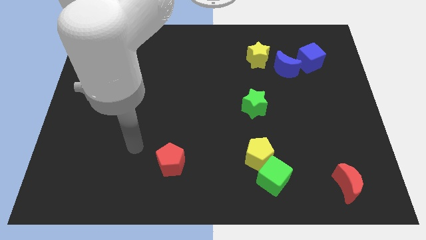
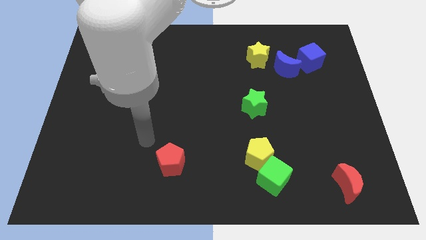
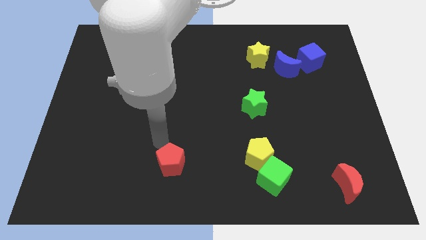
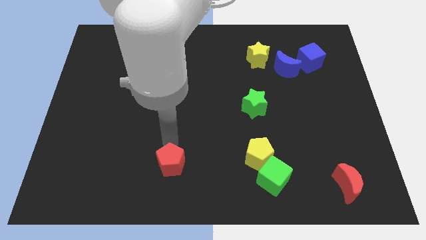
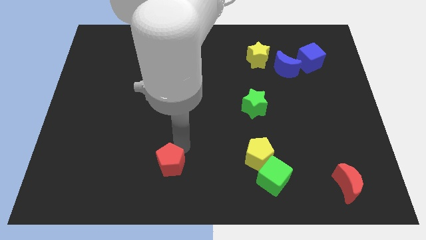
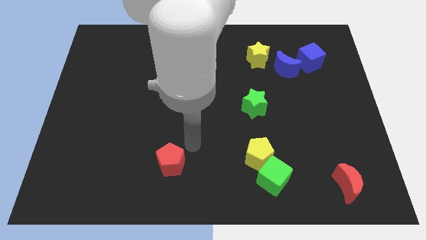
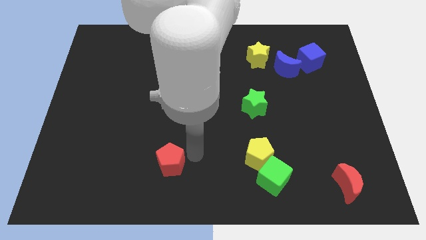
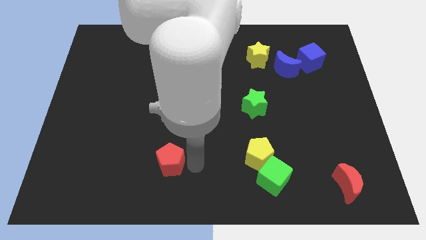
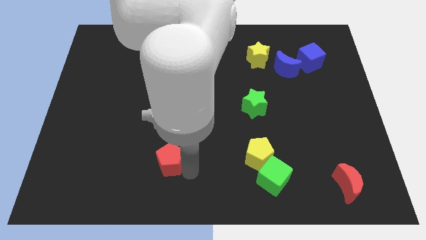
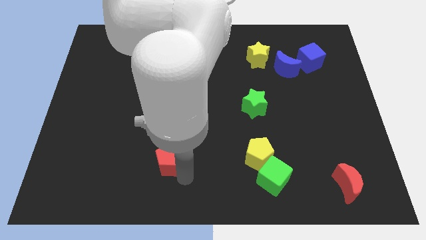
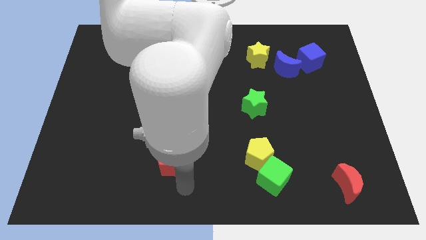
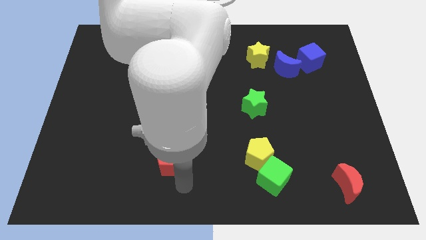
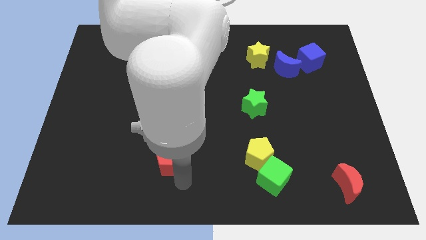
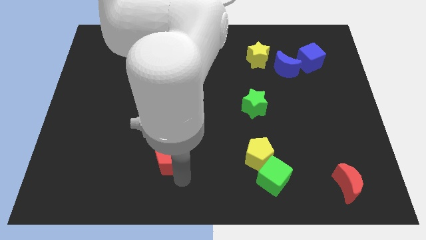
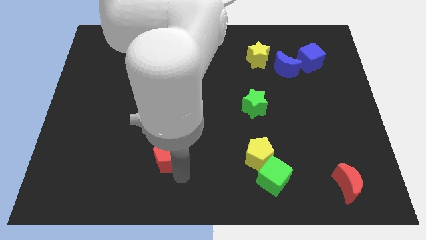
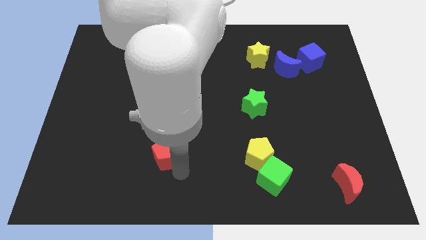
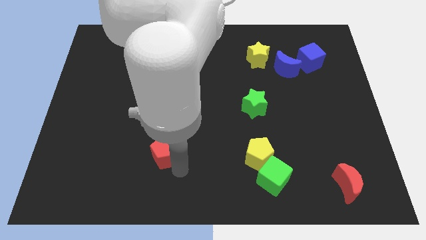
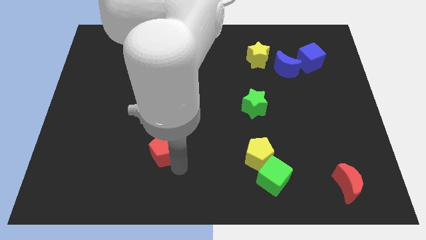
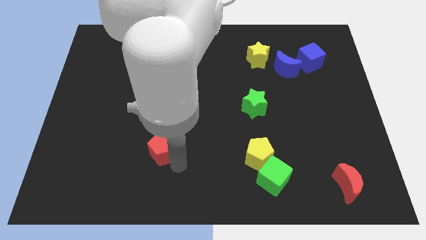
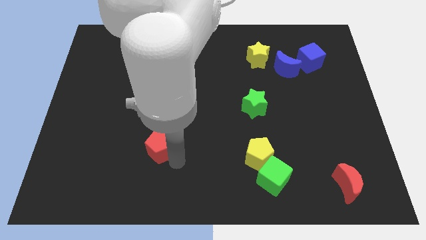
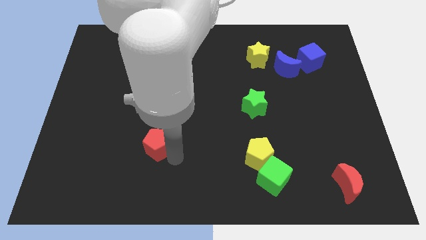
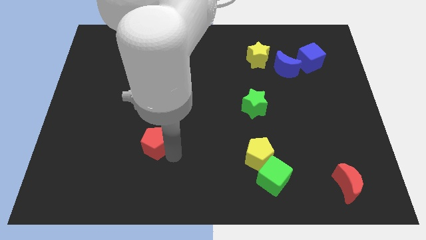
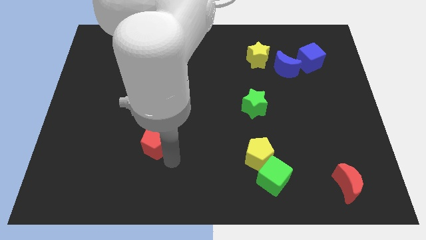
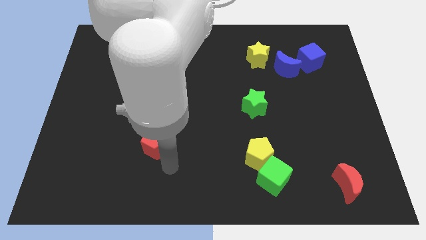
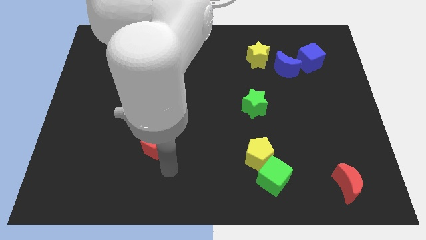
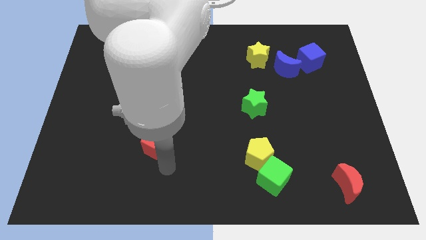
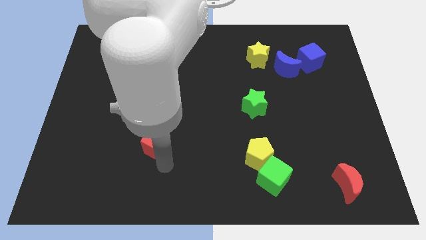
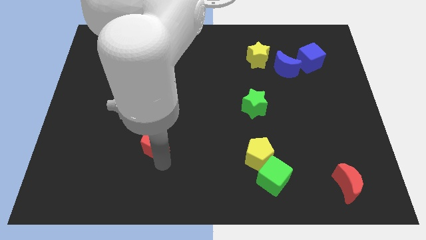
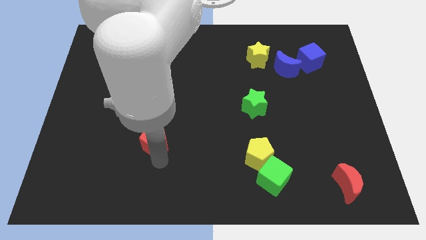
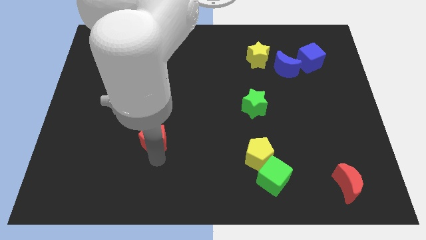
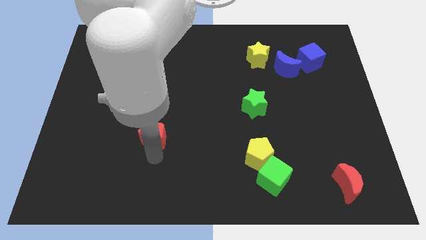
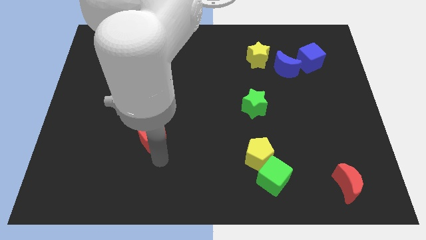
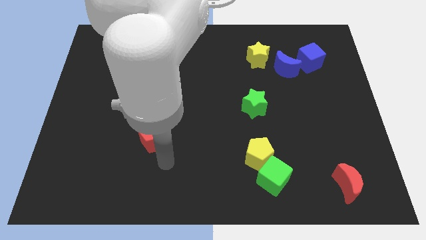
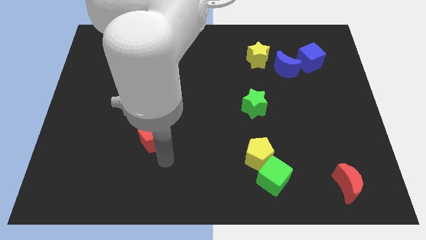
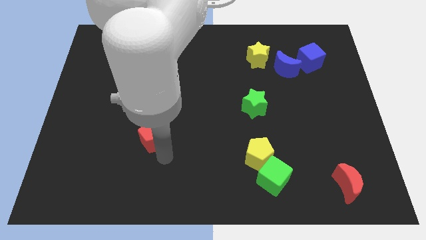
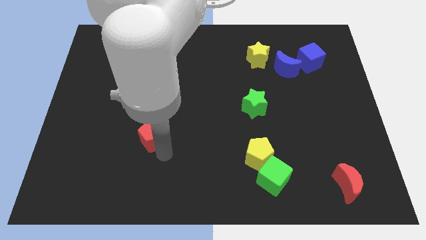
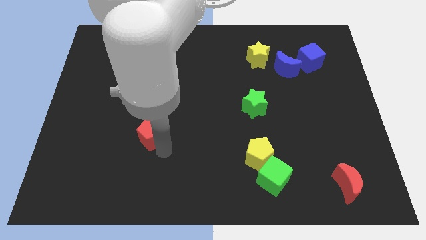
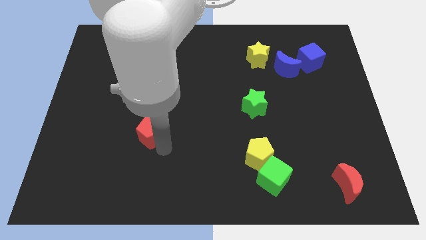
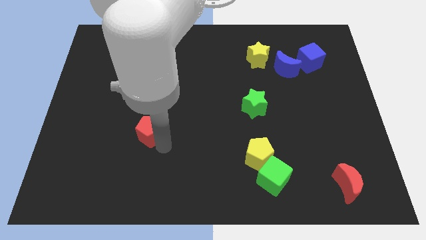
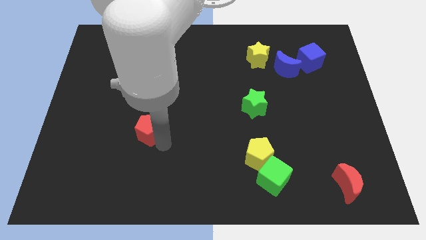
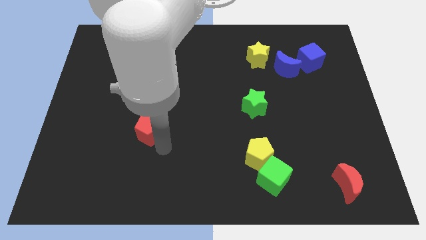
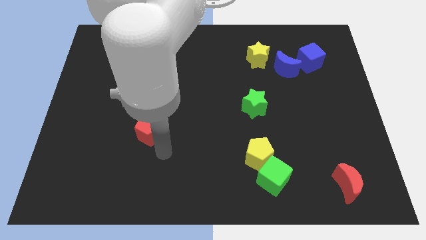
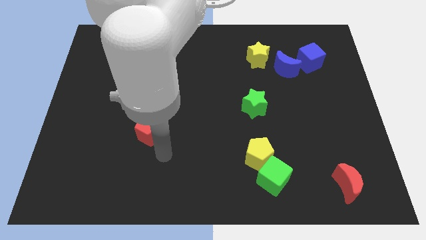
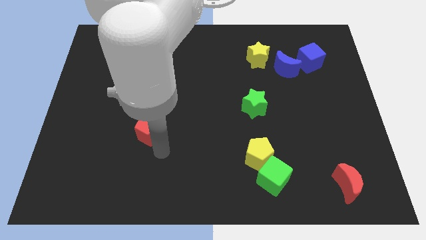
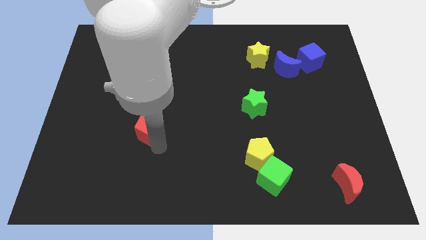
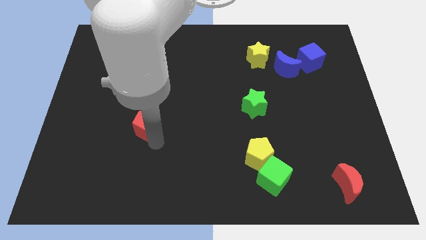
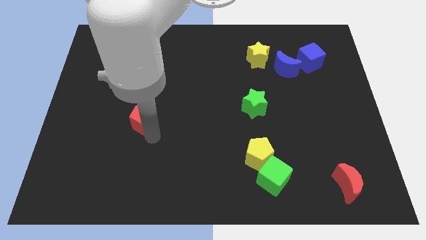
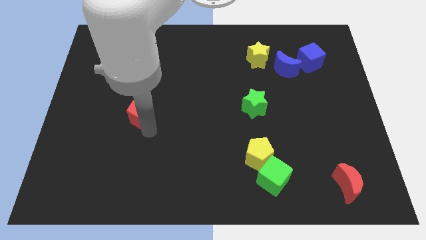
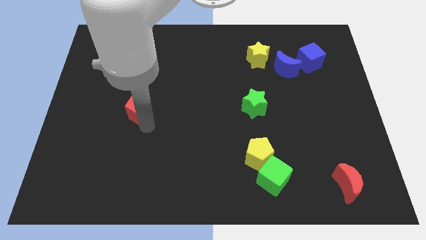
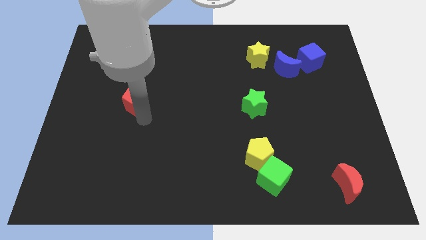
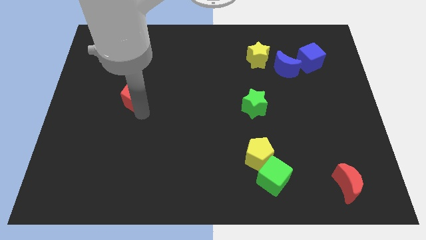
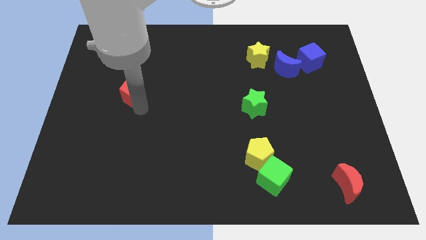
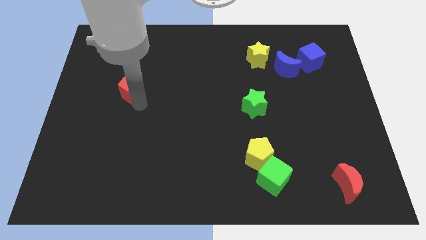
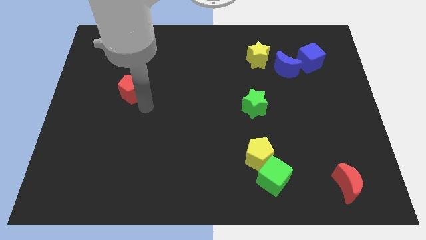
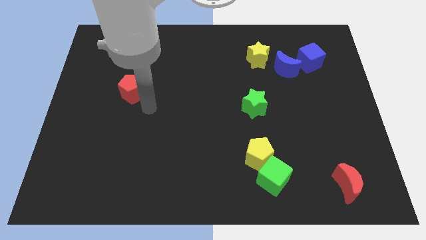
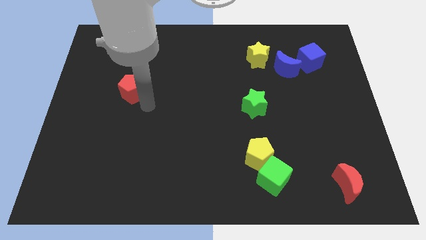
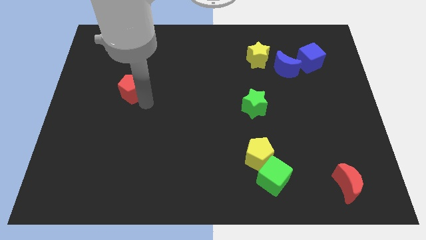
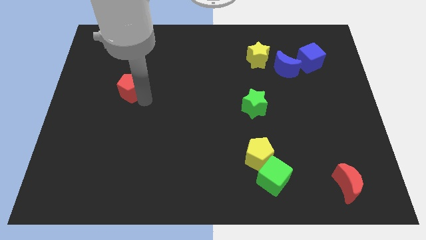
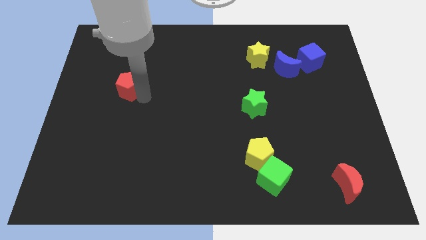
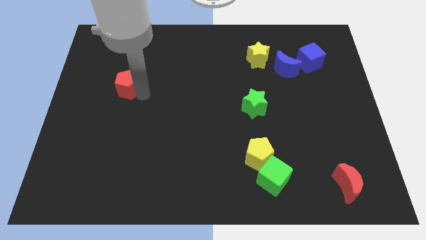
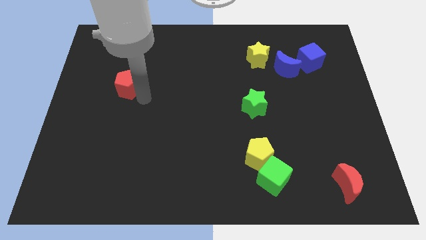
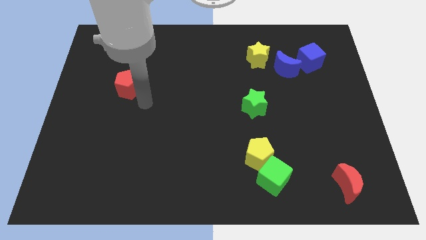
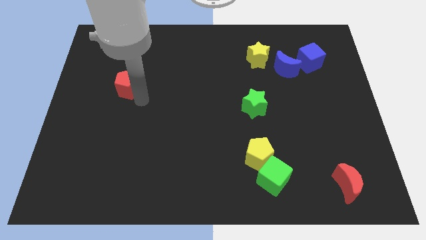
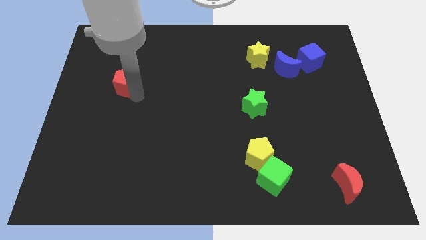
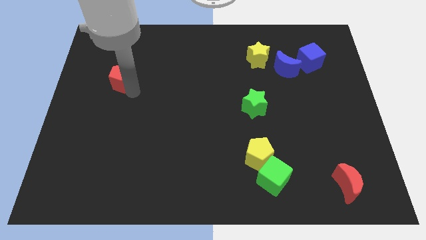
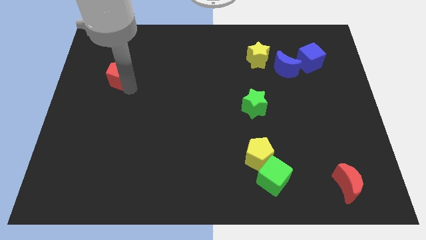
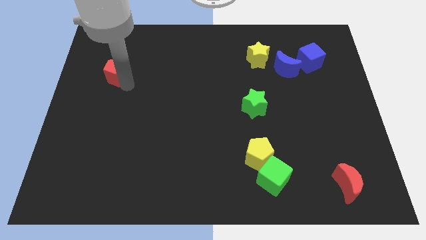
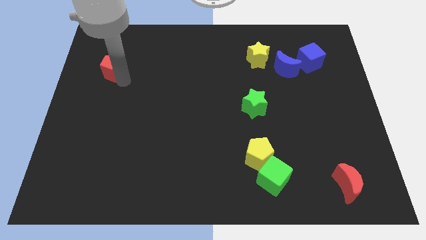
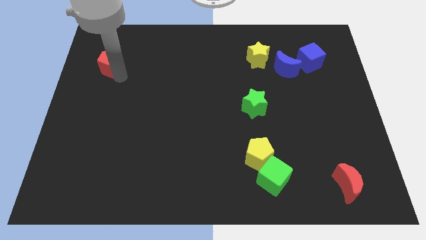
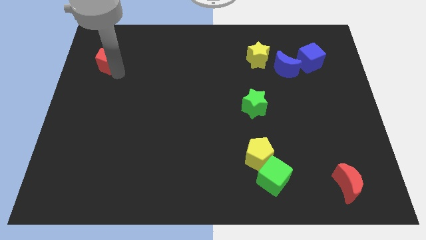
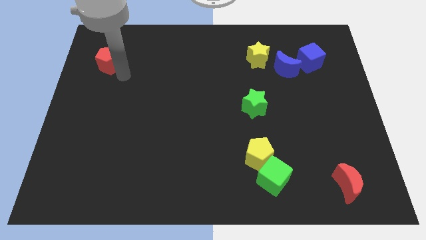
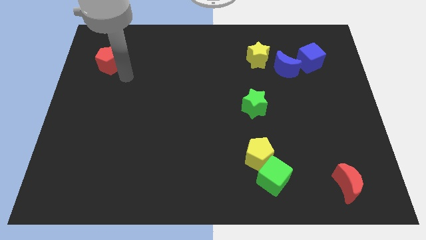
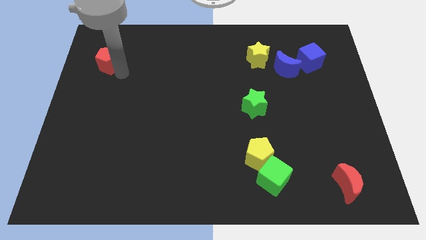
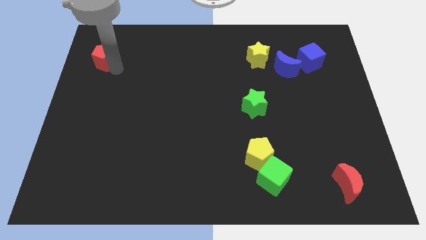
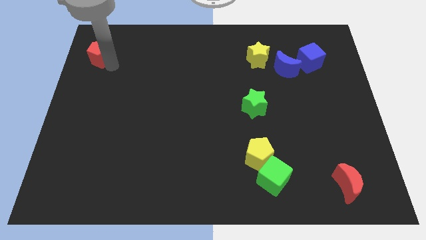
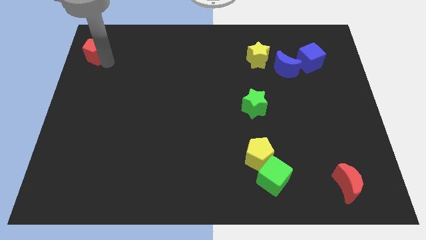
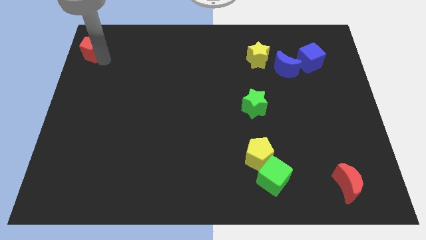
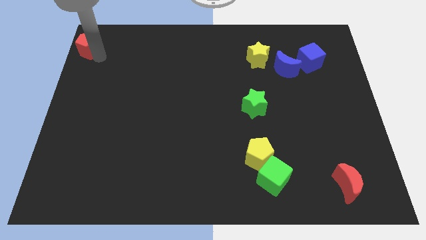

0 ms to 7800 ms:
move the red pentagon to the top left of the board
